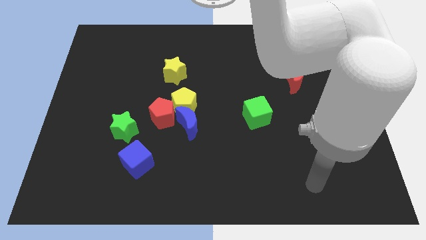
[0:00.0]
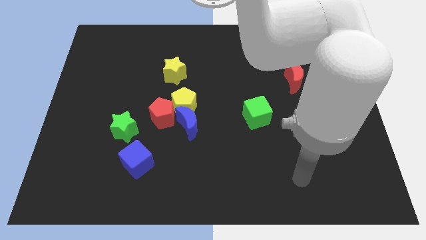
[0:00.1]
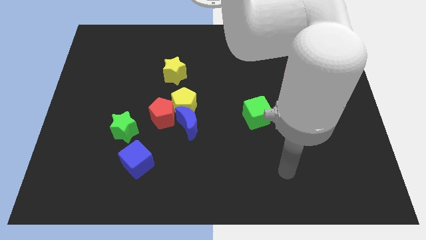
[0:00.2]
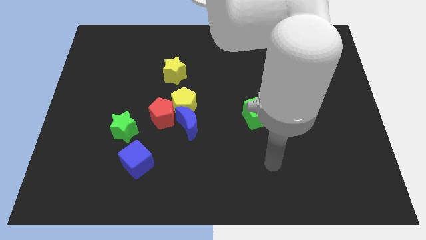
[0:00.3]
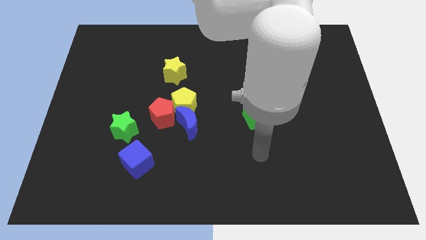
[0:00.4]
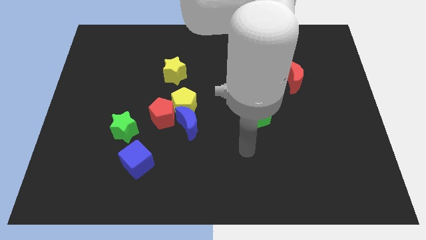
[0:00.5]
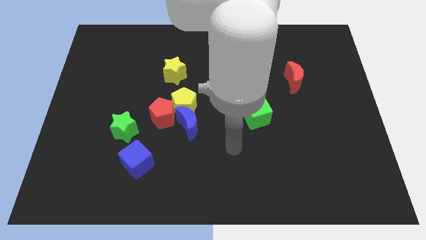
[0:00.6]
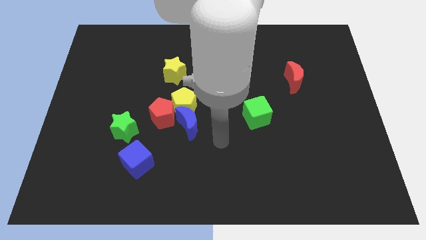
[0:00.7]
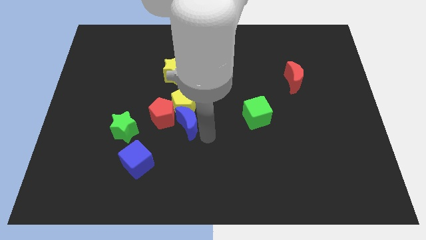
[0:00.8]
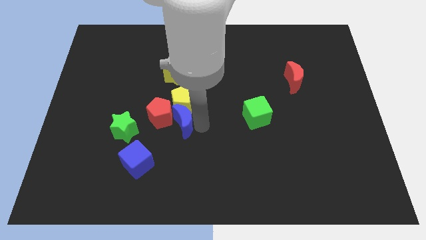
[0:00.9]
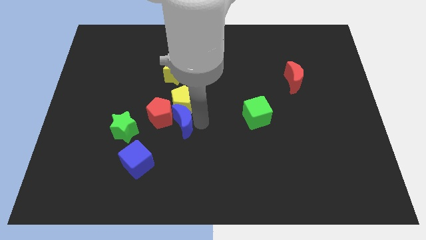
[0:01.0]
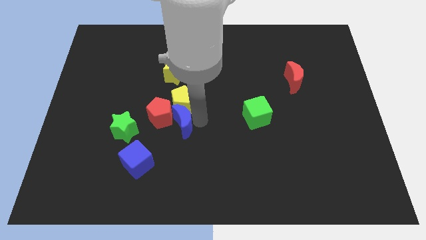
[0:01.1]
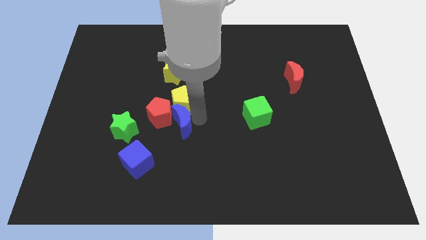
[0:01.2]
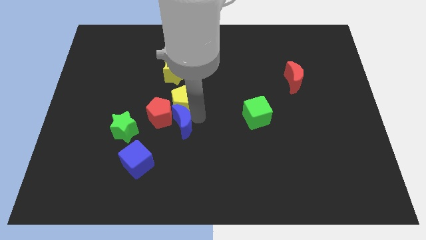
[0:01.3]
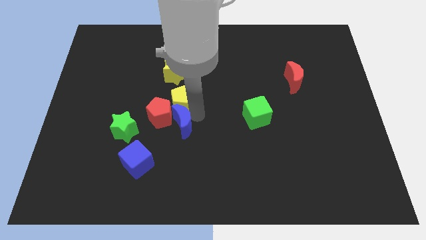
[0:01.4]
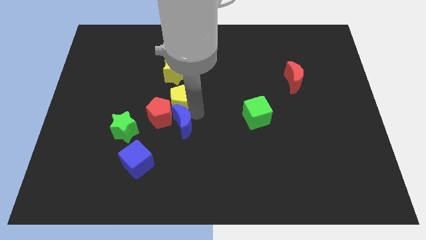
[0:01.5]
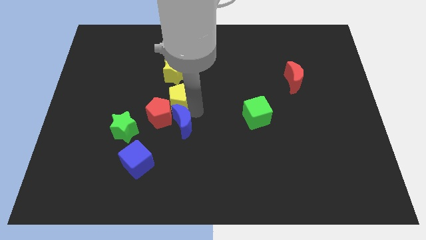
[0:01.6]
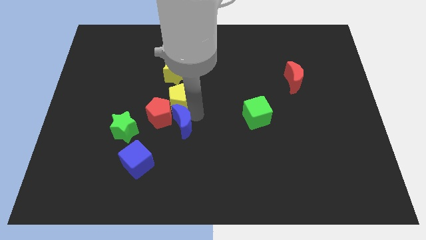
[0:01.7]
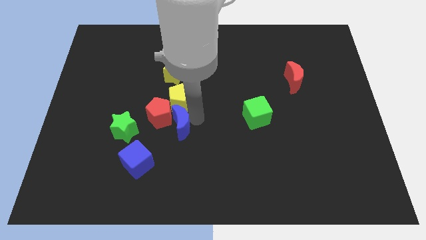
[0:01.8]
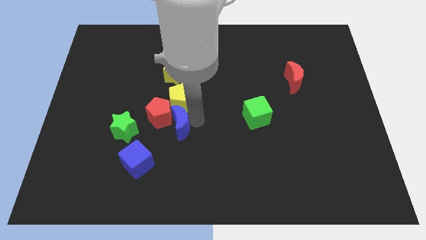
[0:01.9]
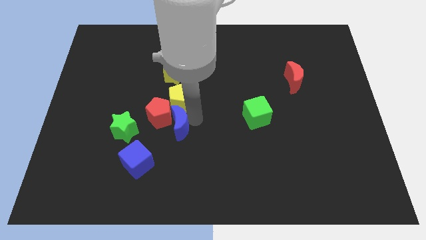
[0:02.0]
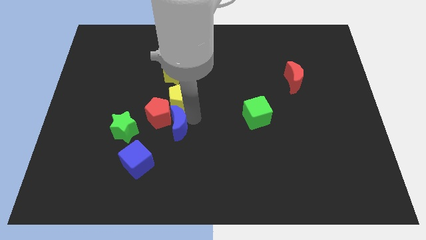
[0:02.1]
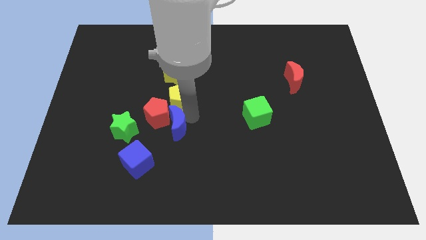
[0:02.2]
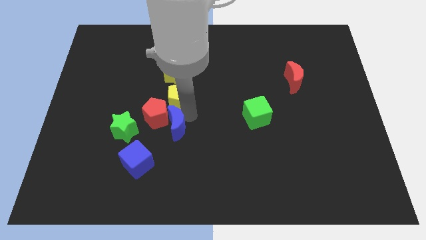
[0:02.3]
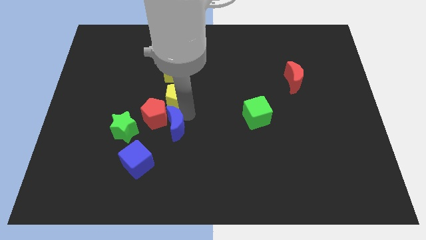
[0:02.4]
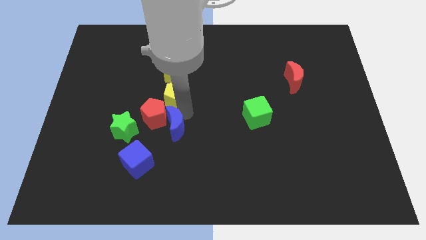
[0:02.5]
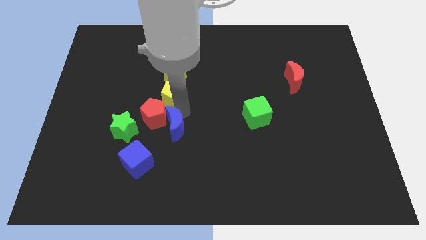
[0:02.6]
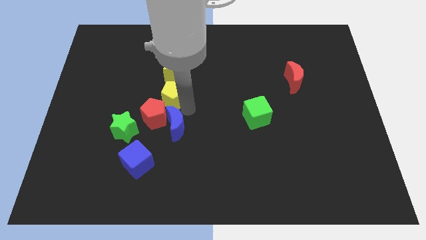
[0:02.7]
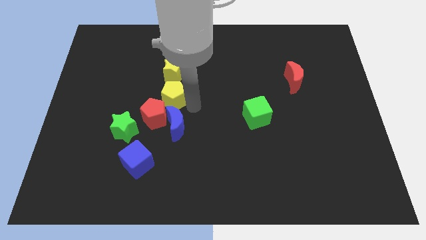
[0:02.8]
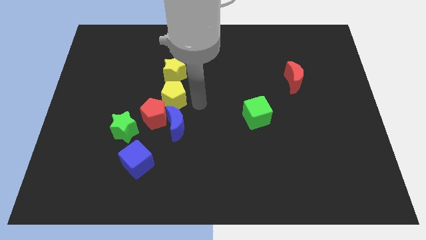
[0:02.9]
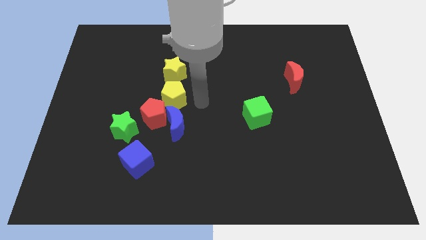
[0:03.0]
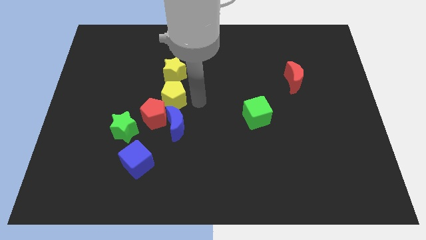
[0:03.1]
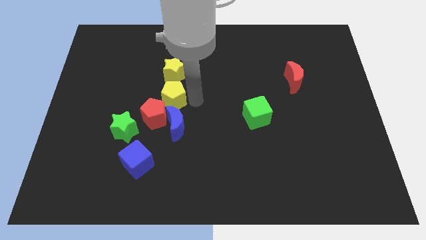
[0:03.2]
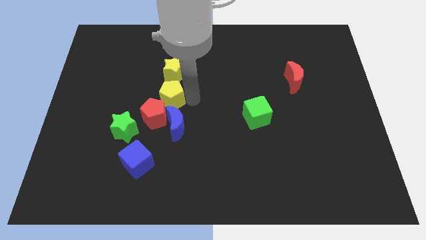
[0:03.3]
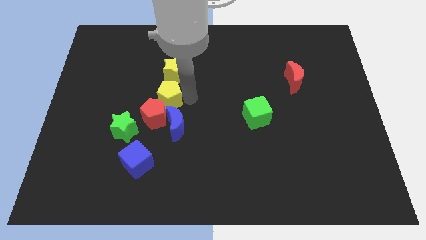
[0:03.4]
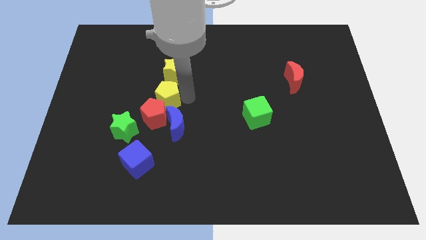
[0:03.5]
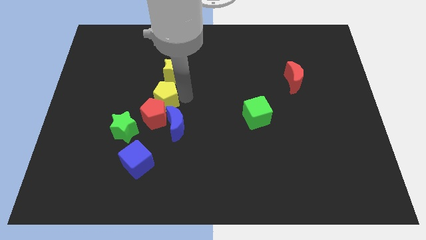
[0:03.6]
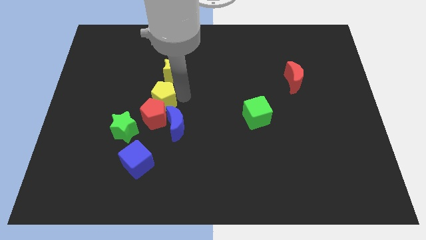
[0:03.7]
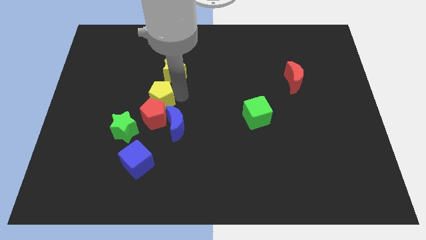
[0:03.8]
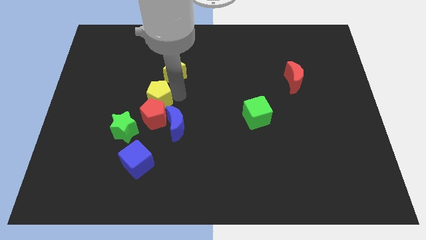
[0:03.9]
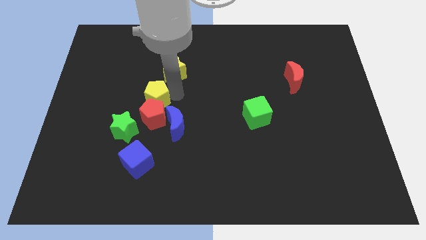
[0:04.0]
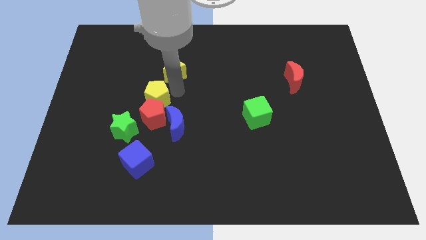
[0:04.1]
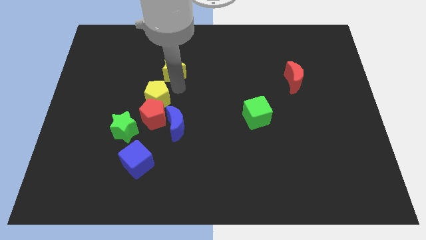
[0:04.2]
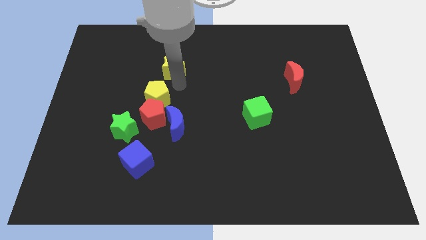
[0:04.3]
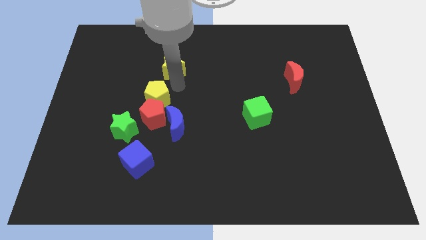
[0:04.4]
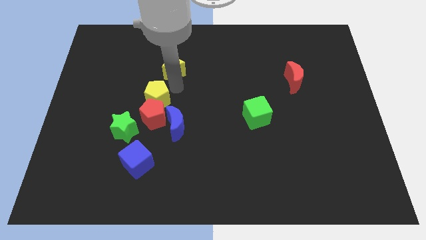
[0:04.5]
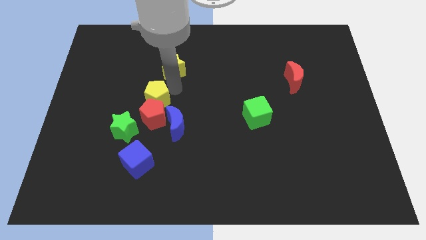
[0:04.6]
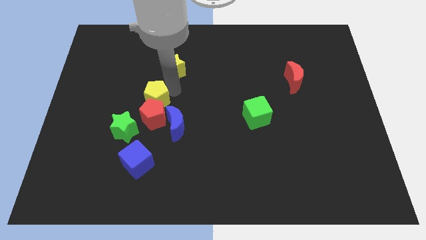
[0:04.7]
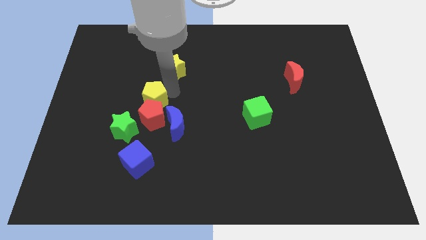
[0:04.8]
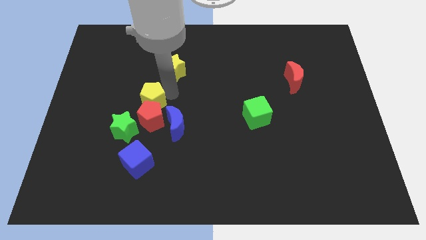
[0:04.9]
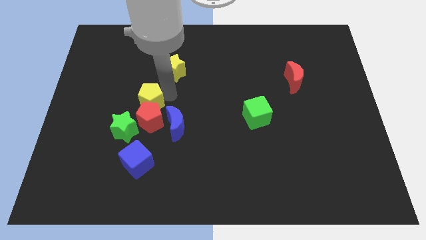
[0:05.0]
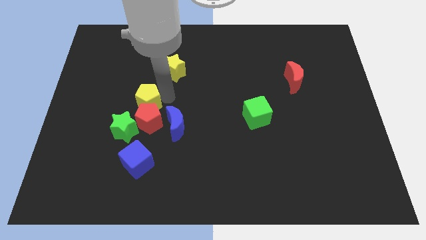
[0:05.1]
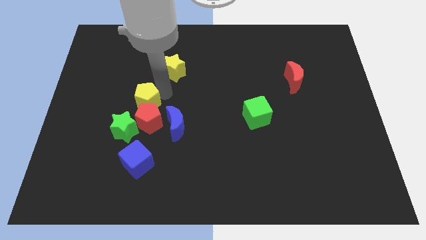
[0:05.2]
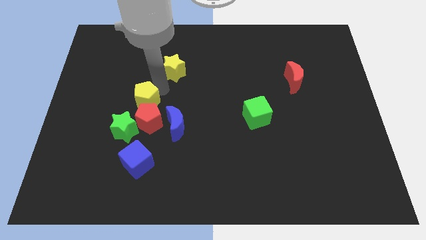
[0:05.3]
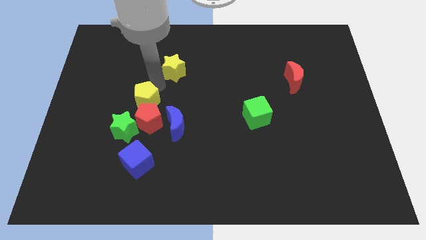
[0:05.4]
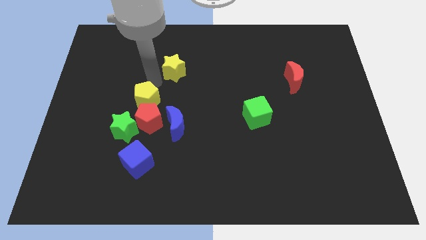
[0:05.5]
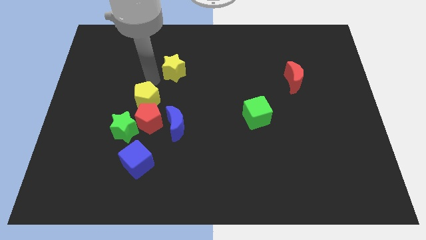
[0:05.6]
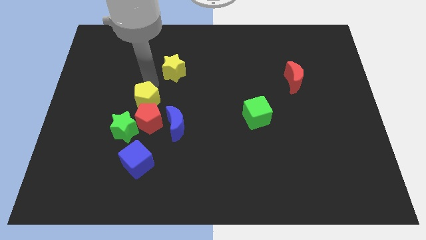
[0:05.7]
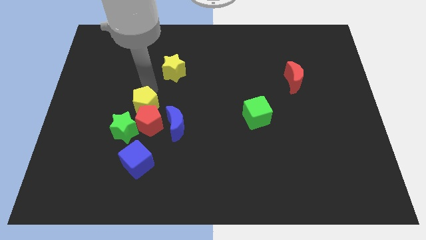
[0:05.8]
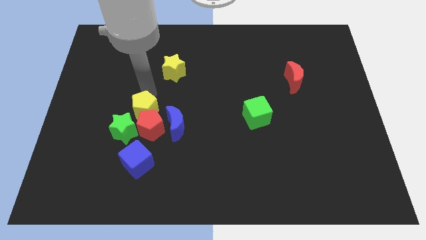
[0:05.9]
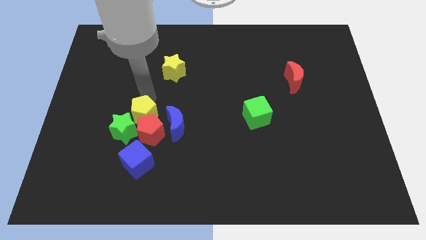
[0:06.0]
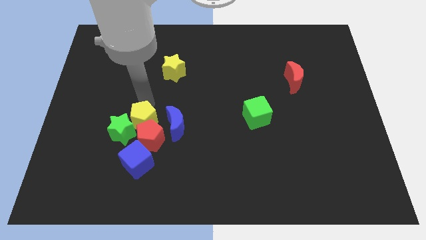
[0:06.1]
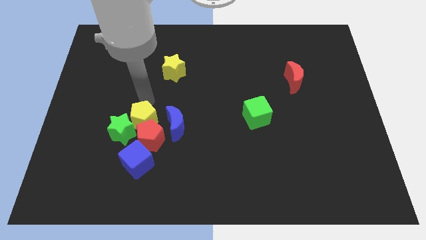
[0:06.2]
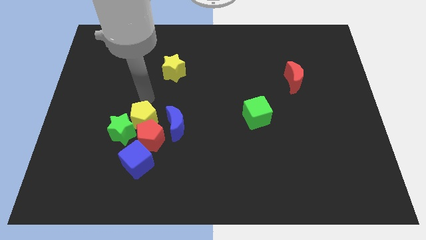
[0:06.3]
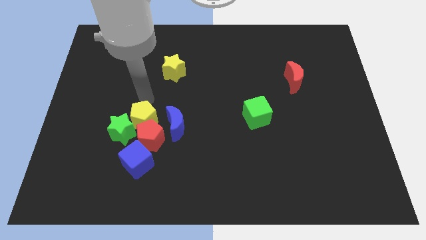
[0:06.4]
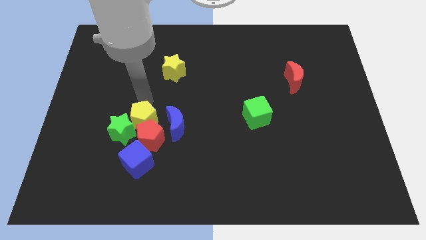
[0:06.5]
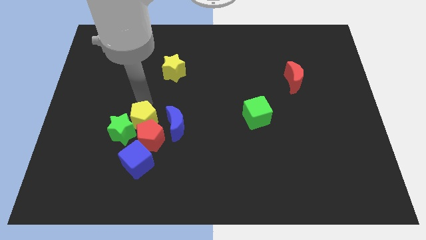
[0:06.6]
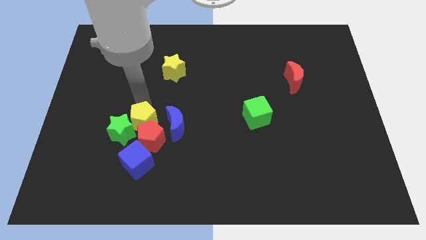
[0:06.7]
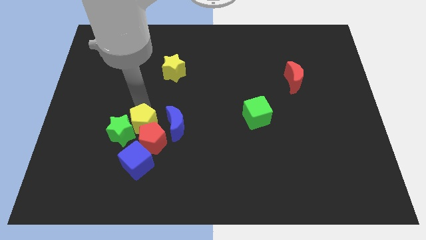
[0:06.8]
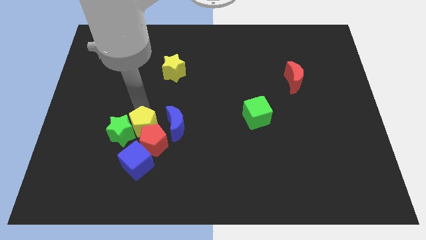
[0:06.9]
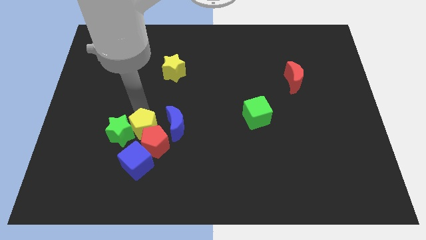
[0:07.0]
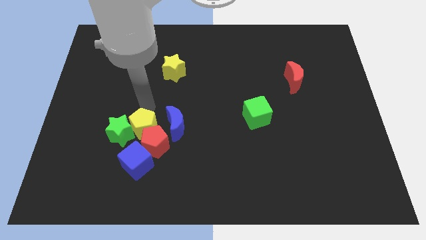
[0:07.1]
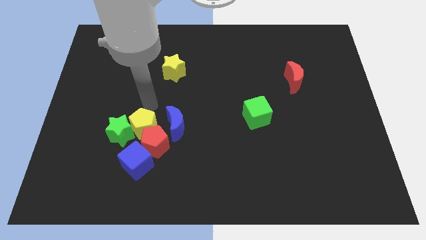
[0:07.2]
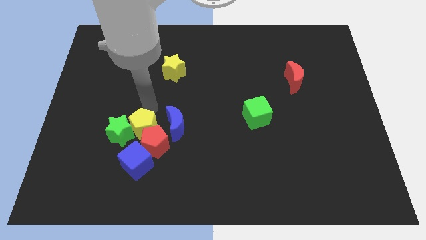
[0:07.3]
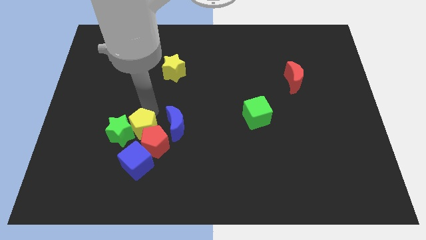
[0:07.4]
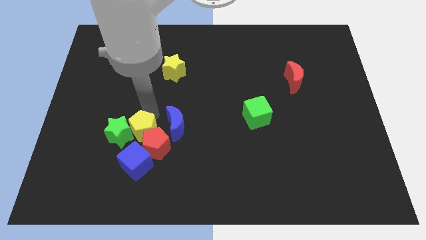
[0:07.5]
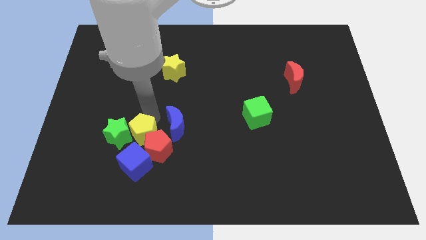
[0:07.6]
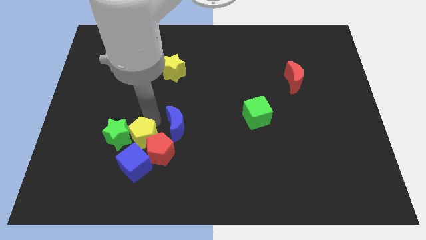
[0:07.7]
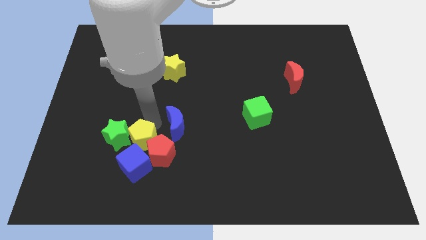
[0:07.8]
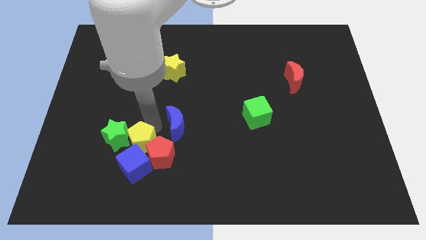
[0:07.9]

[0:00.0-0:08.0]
put the yellow pentagon to the blue cube
